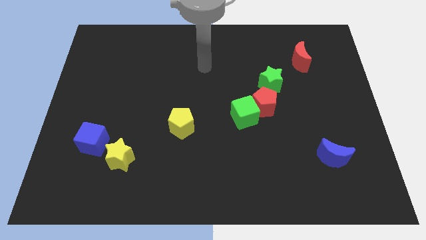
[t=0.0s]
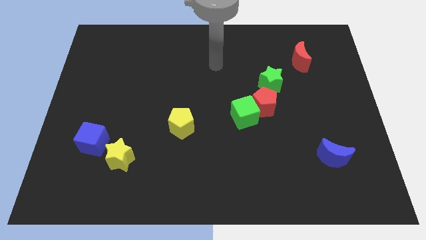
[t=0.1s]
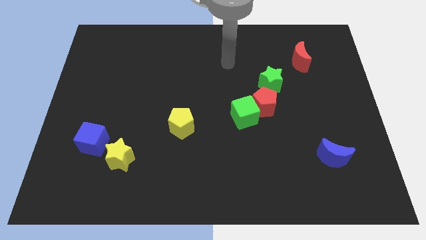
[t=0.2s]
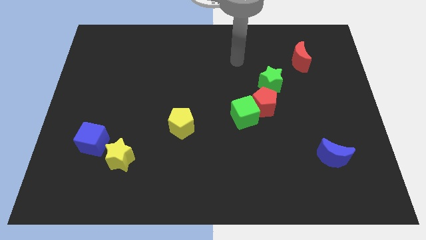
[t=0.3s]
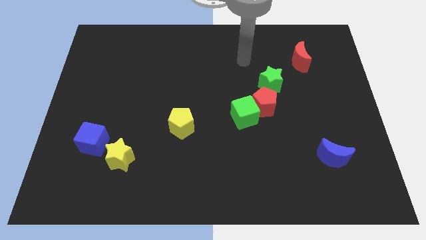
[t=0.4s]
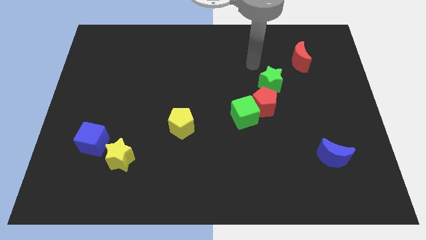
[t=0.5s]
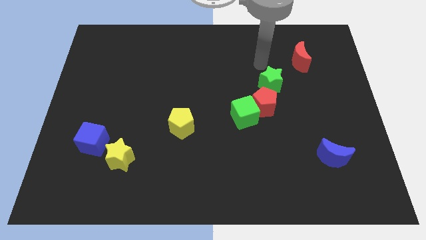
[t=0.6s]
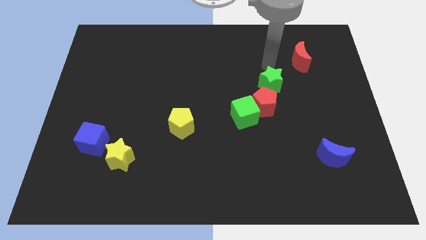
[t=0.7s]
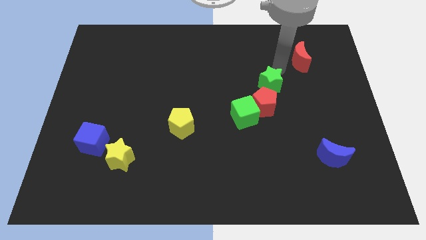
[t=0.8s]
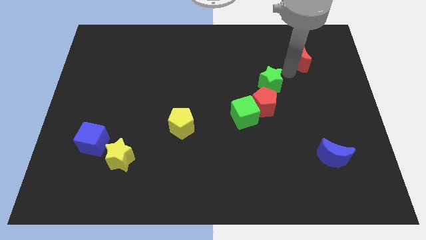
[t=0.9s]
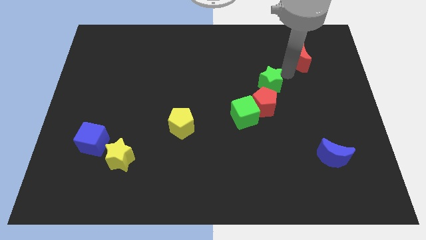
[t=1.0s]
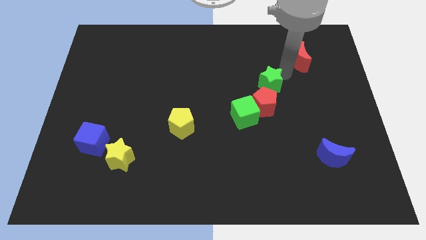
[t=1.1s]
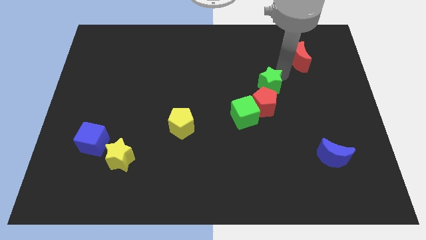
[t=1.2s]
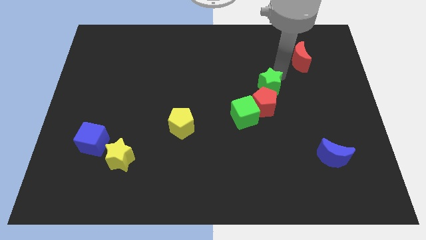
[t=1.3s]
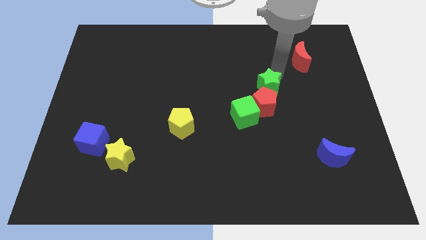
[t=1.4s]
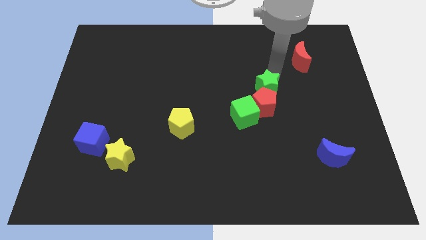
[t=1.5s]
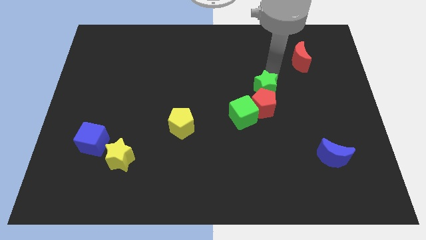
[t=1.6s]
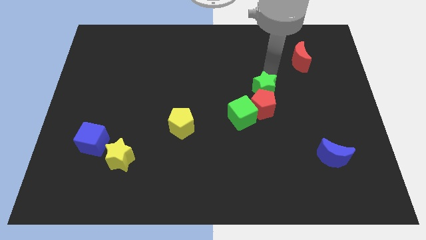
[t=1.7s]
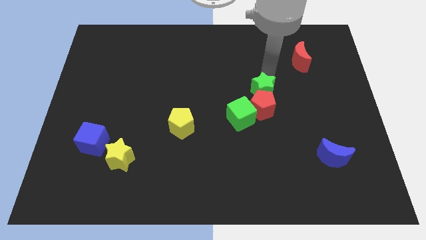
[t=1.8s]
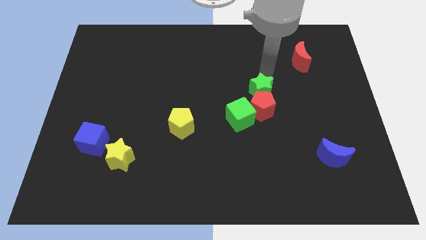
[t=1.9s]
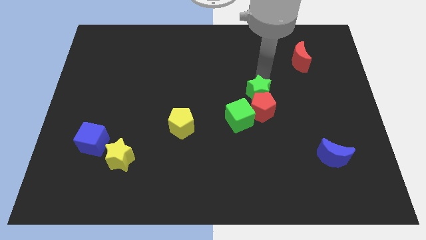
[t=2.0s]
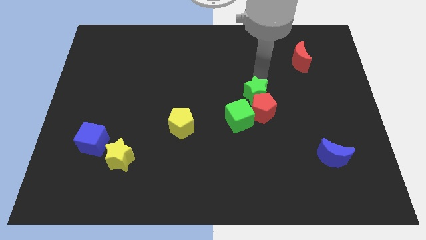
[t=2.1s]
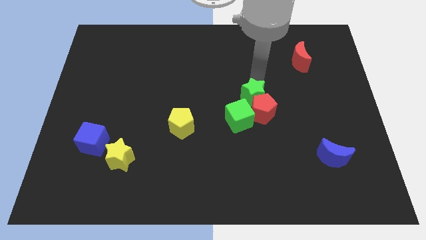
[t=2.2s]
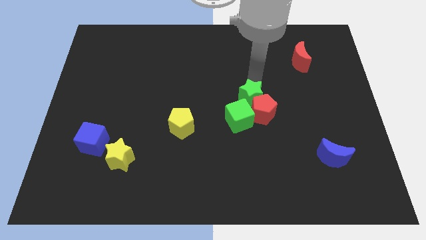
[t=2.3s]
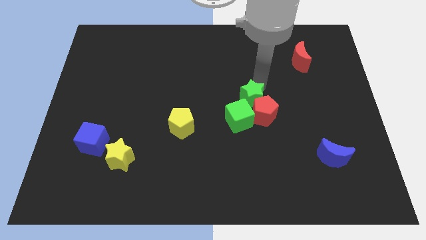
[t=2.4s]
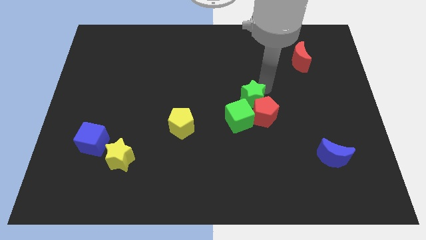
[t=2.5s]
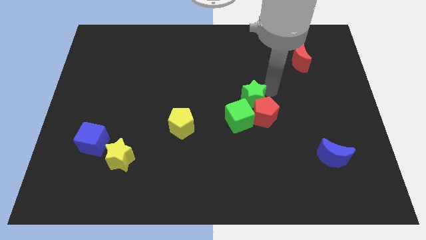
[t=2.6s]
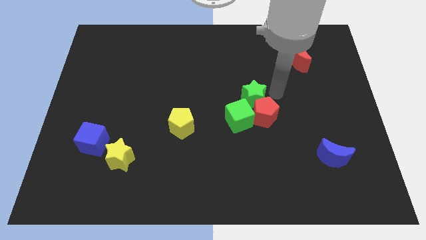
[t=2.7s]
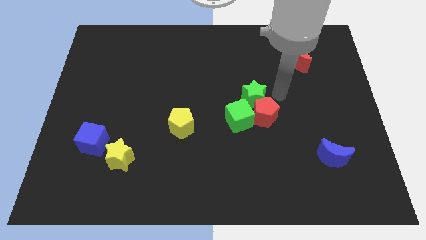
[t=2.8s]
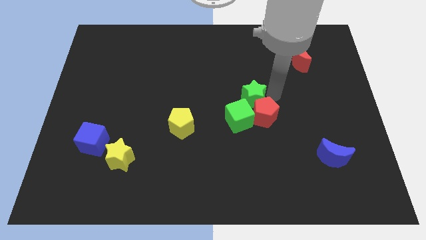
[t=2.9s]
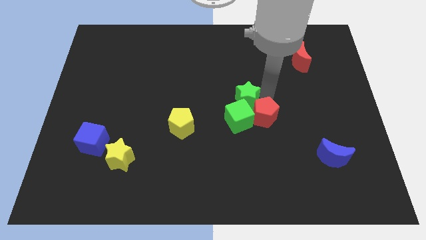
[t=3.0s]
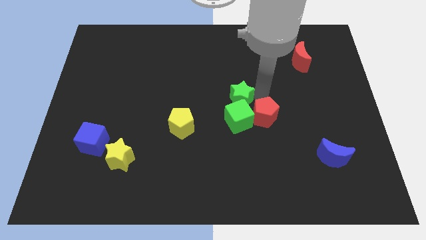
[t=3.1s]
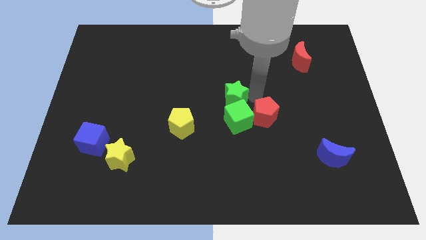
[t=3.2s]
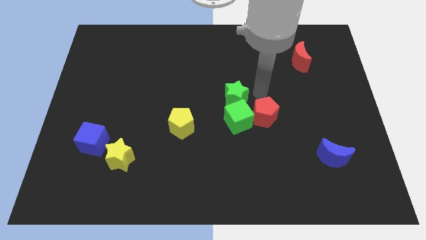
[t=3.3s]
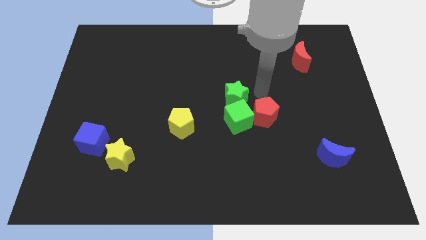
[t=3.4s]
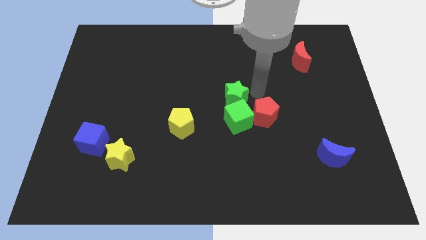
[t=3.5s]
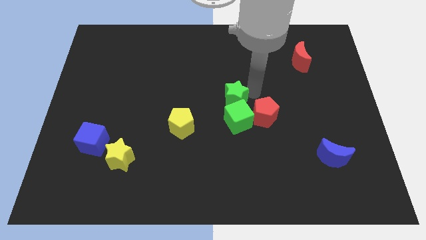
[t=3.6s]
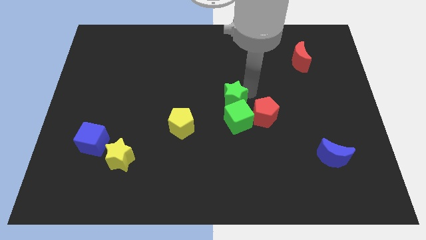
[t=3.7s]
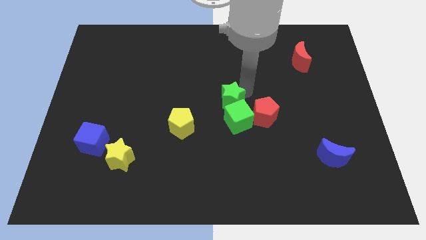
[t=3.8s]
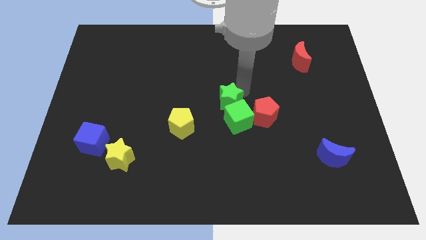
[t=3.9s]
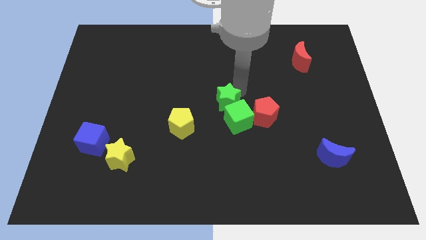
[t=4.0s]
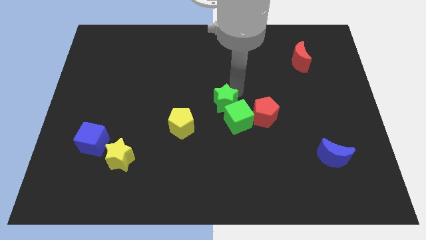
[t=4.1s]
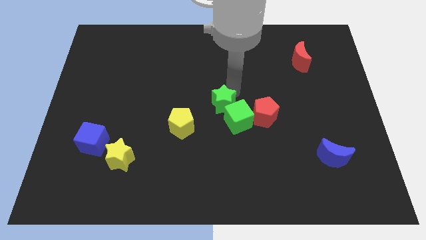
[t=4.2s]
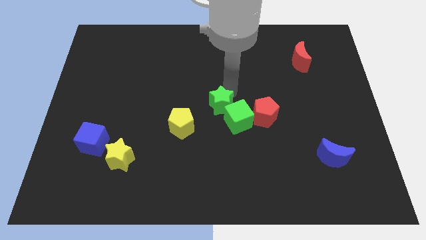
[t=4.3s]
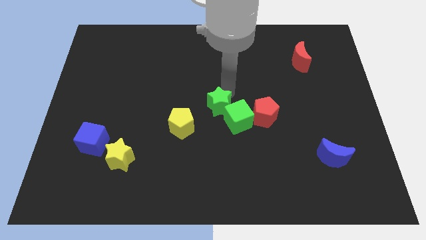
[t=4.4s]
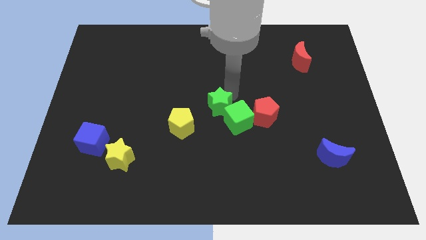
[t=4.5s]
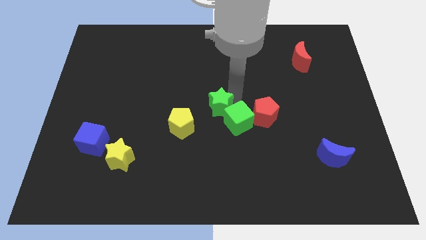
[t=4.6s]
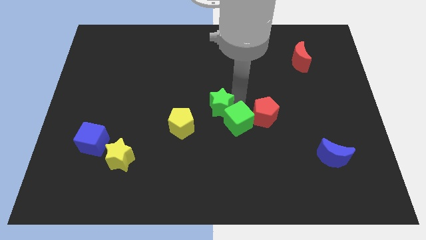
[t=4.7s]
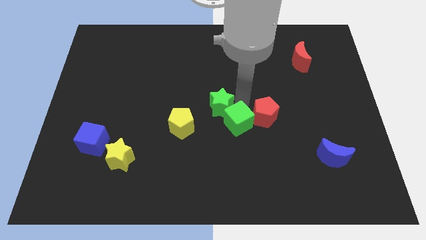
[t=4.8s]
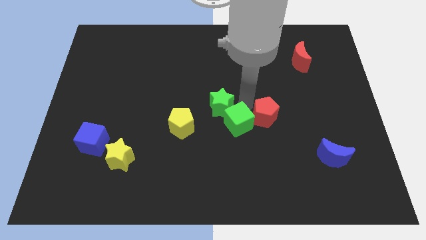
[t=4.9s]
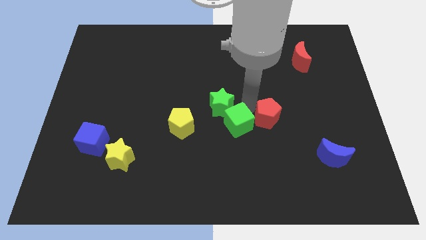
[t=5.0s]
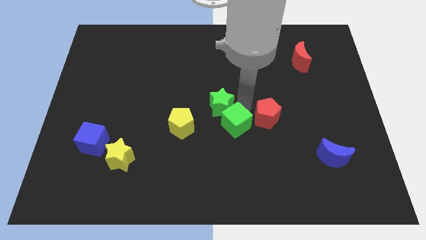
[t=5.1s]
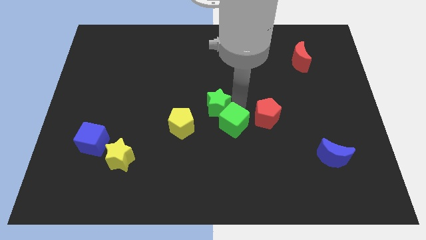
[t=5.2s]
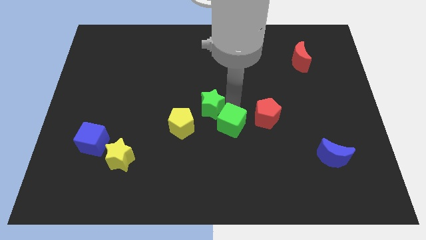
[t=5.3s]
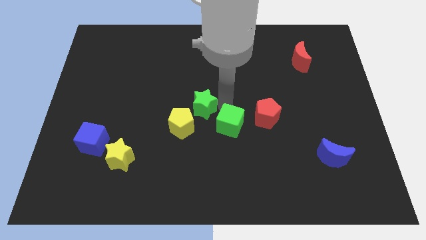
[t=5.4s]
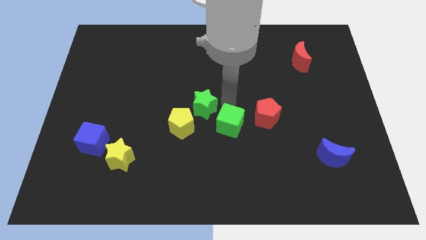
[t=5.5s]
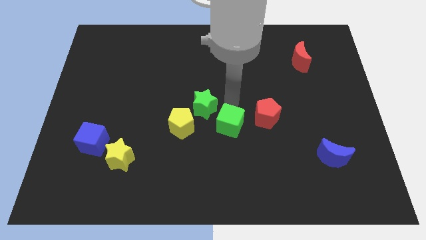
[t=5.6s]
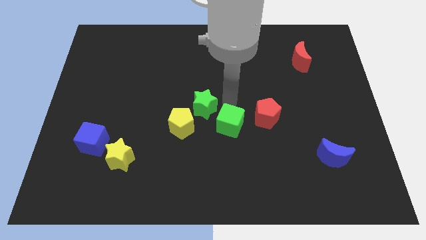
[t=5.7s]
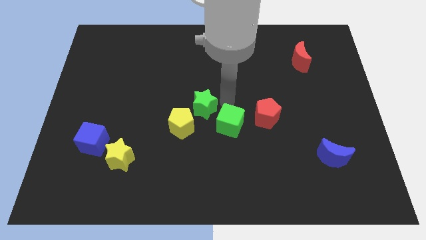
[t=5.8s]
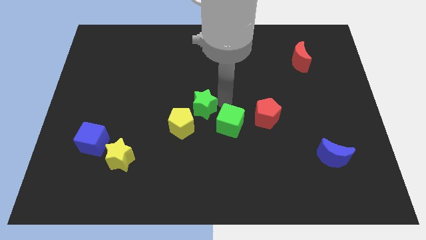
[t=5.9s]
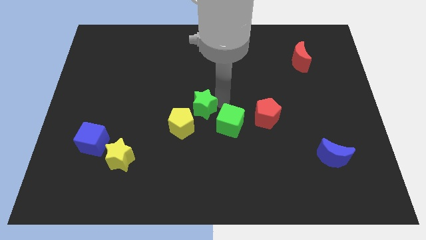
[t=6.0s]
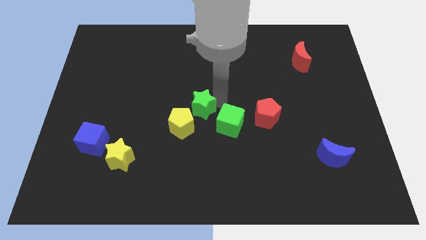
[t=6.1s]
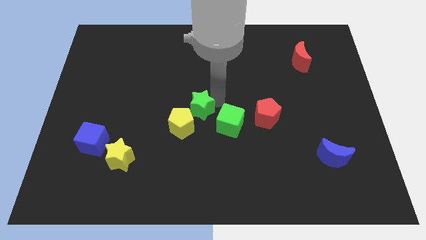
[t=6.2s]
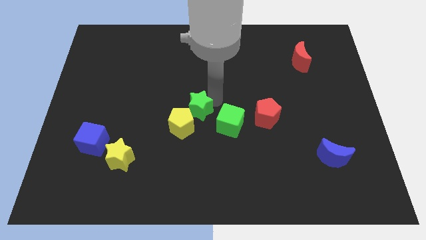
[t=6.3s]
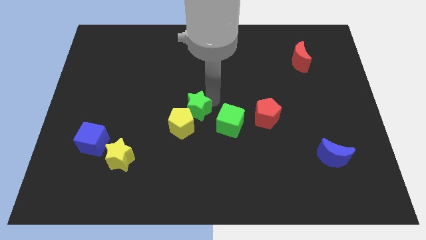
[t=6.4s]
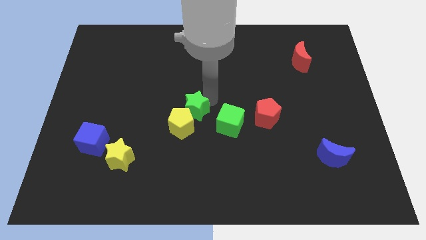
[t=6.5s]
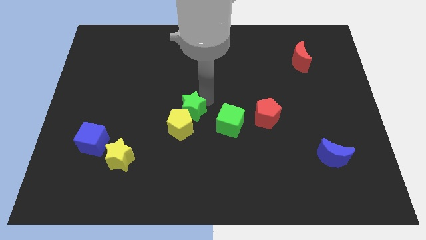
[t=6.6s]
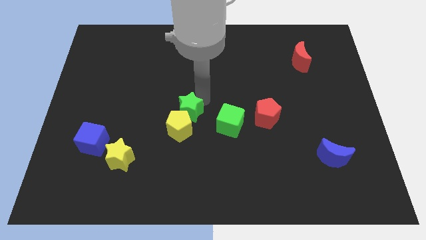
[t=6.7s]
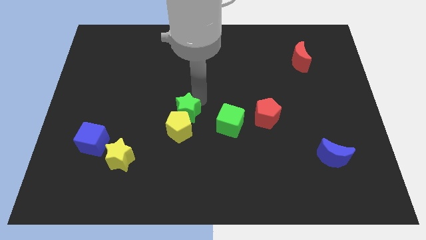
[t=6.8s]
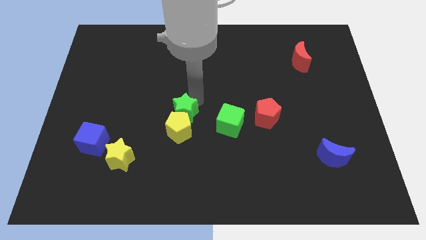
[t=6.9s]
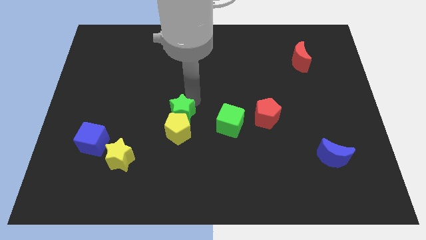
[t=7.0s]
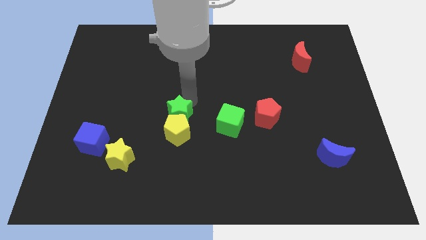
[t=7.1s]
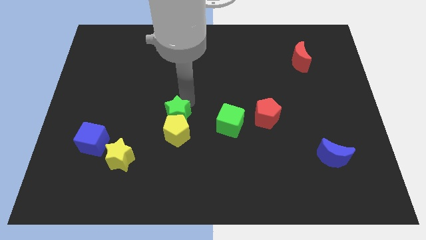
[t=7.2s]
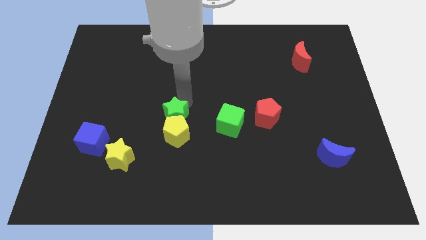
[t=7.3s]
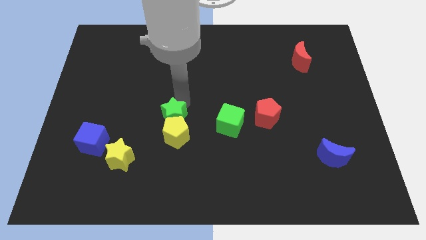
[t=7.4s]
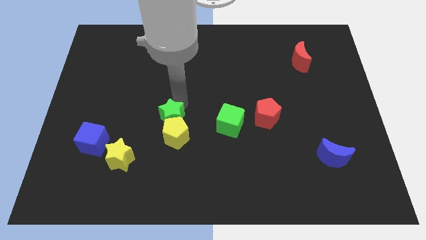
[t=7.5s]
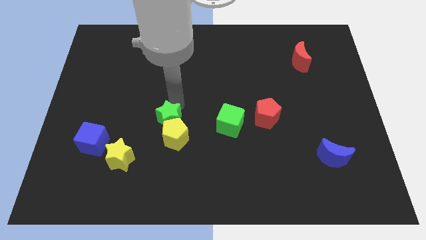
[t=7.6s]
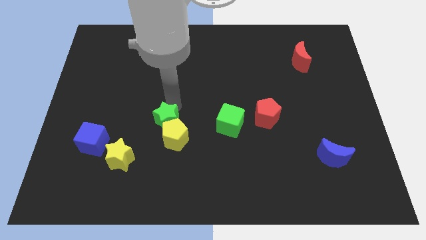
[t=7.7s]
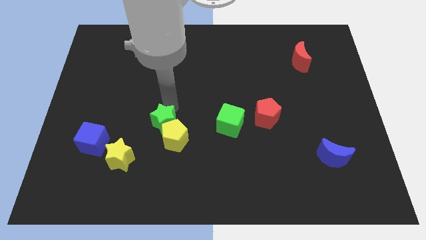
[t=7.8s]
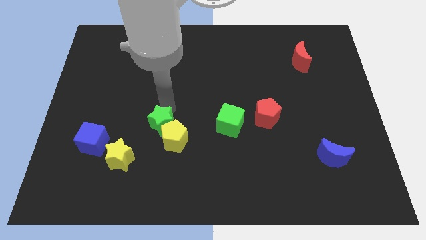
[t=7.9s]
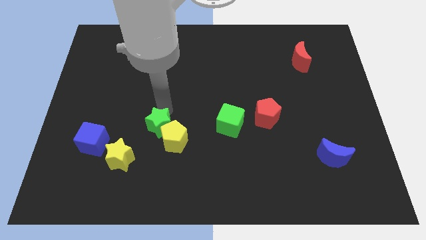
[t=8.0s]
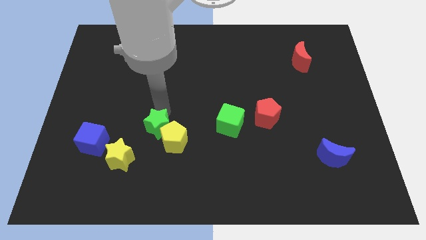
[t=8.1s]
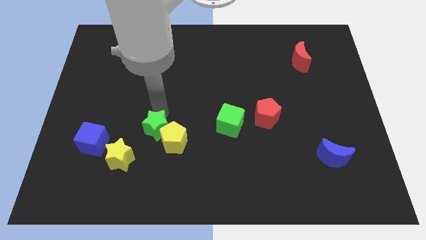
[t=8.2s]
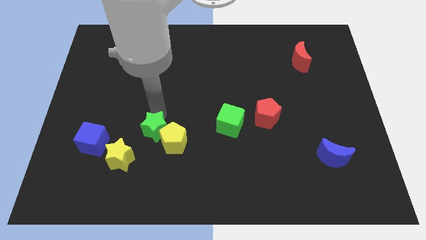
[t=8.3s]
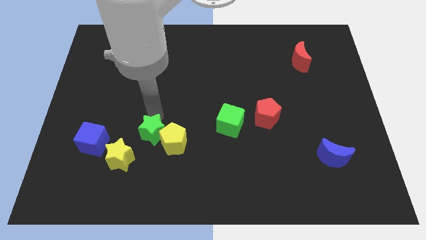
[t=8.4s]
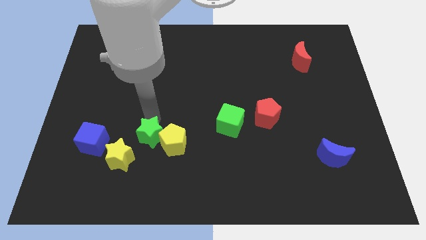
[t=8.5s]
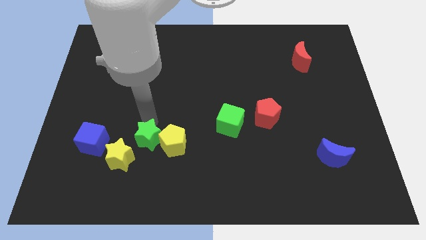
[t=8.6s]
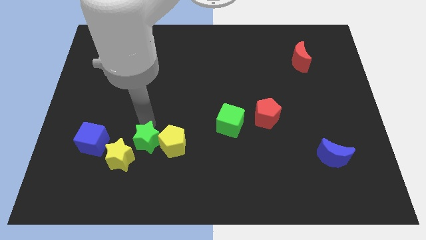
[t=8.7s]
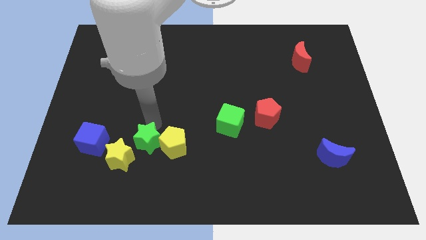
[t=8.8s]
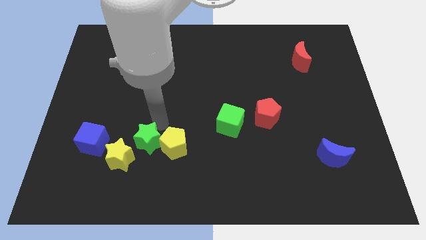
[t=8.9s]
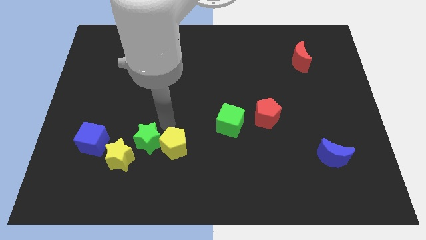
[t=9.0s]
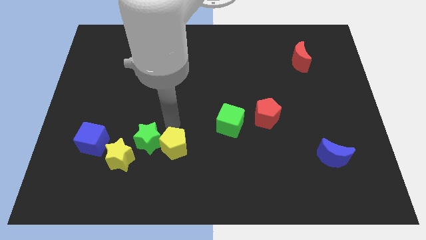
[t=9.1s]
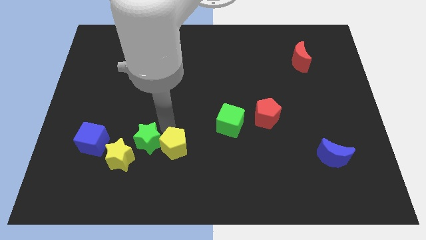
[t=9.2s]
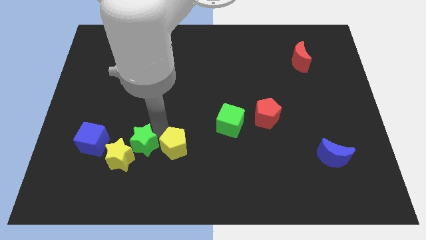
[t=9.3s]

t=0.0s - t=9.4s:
move the green star close to the yellow star
